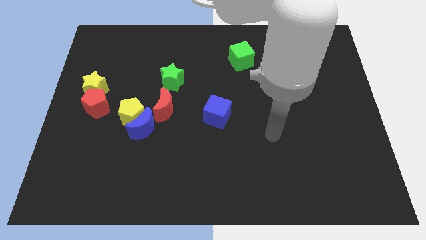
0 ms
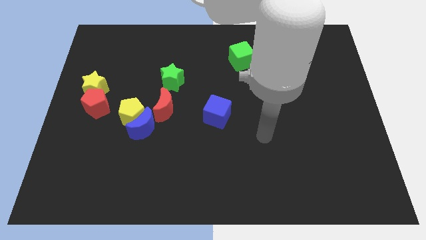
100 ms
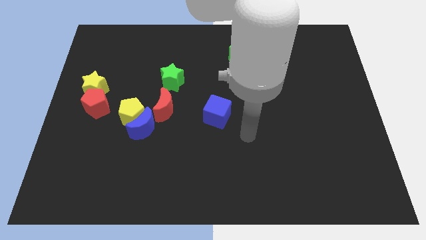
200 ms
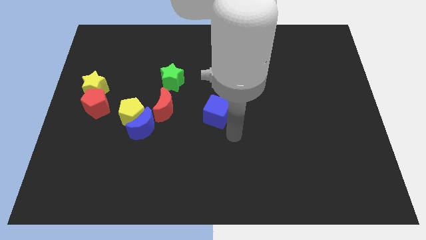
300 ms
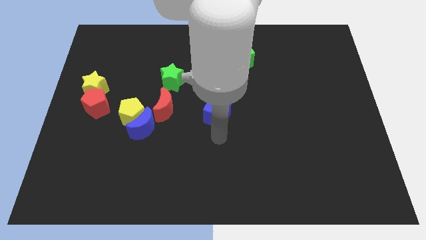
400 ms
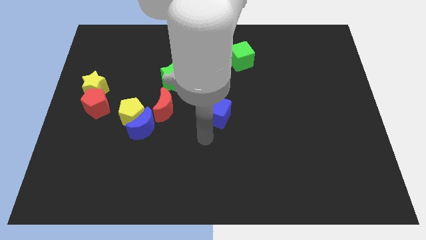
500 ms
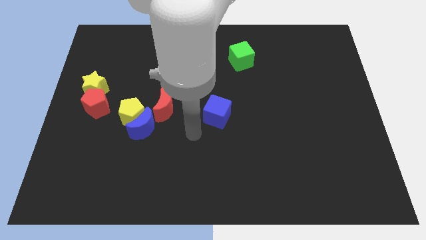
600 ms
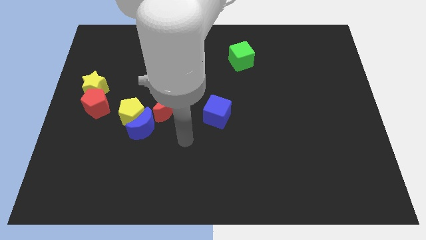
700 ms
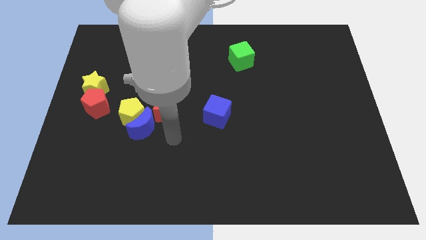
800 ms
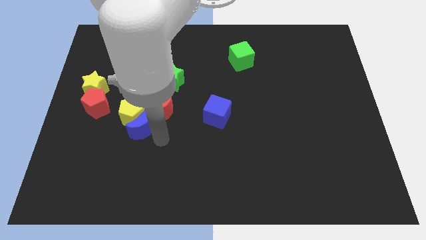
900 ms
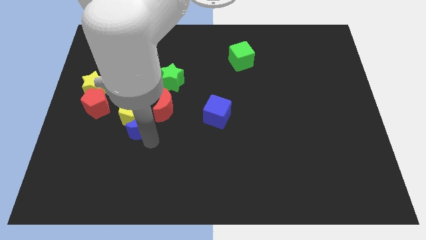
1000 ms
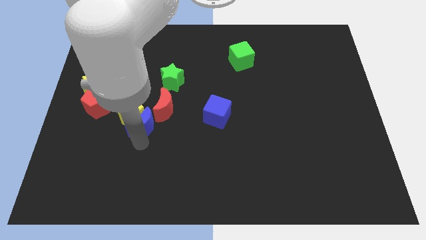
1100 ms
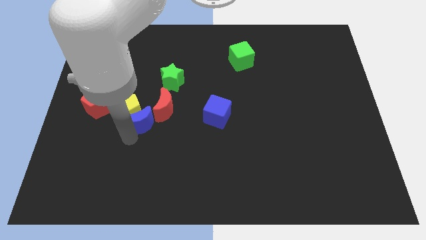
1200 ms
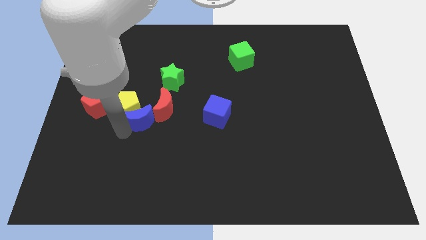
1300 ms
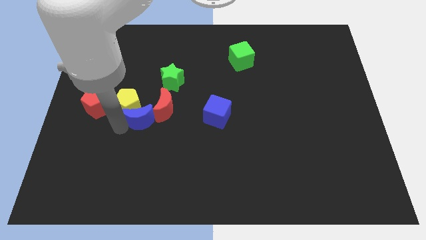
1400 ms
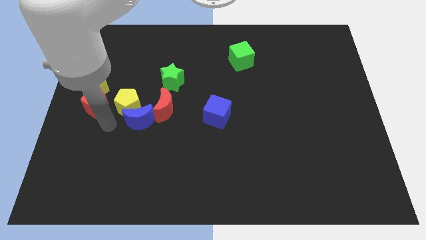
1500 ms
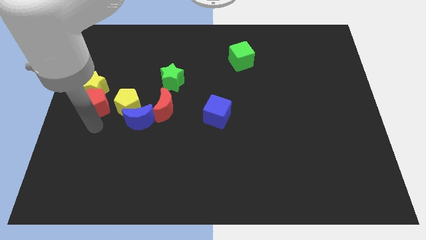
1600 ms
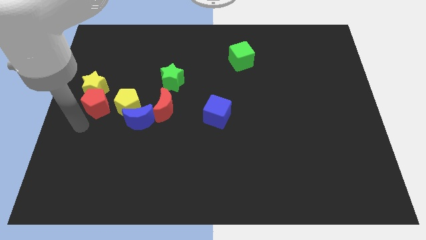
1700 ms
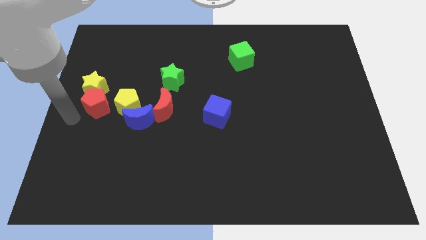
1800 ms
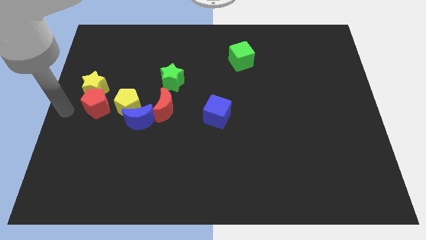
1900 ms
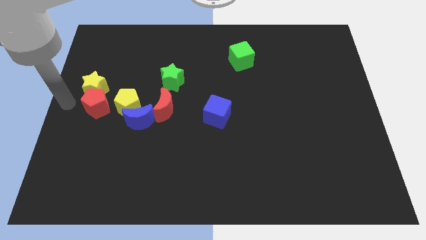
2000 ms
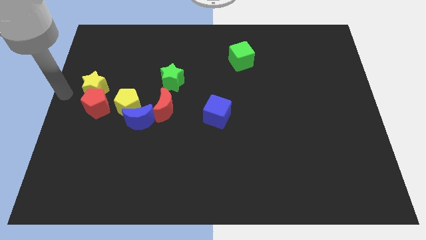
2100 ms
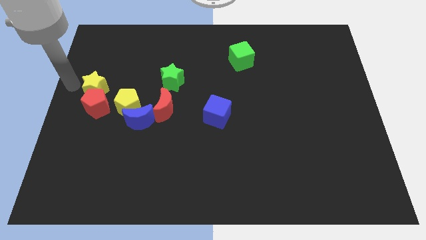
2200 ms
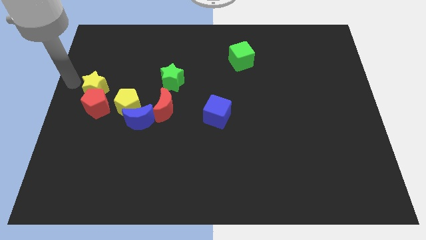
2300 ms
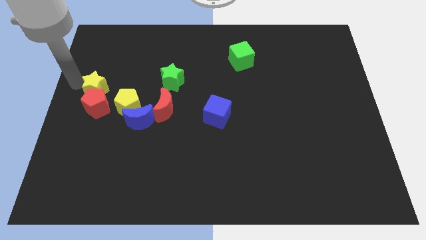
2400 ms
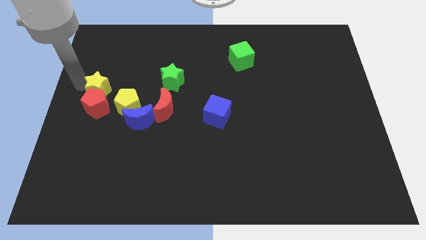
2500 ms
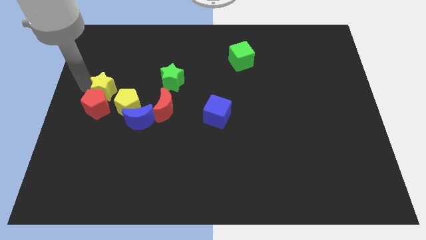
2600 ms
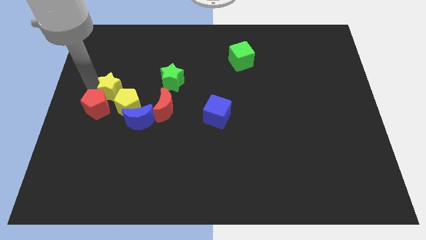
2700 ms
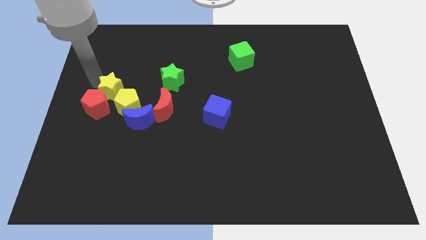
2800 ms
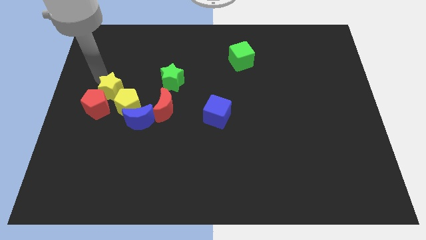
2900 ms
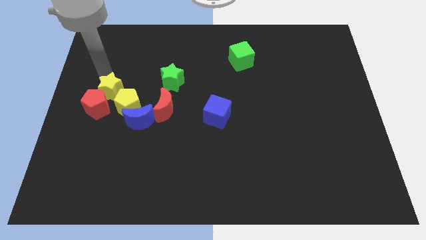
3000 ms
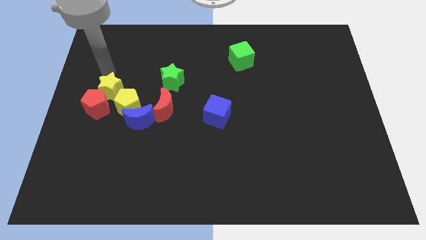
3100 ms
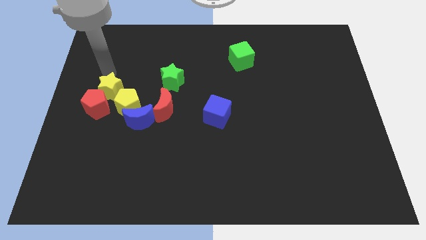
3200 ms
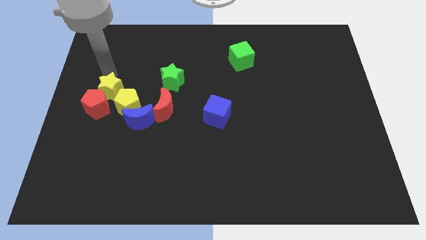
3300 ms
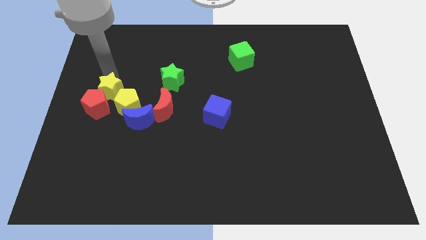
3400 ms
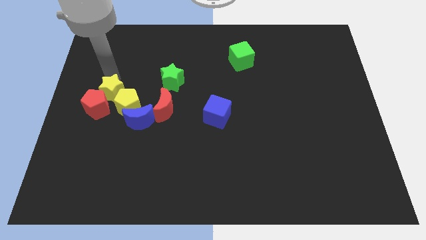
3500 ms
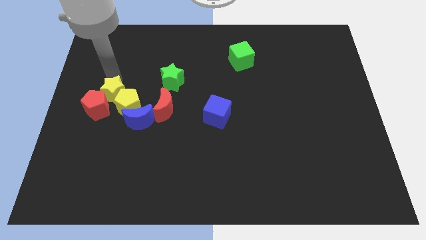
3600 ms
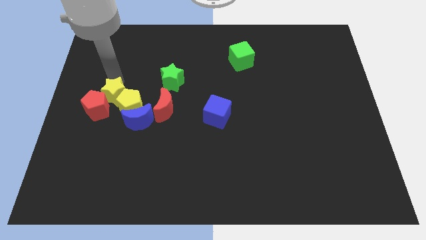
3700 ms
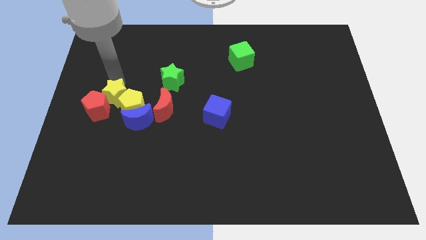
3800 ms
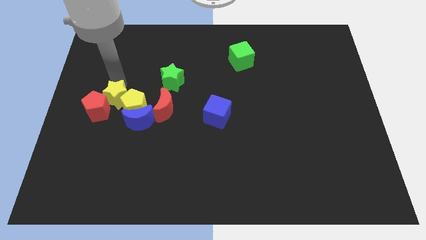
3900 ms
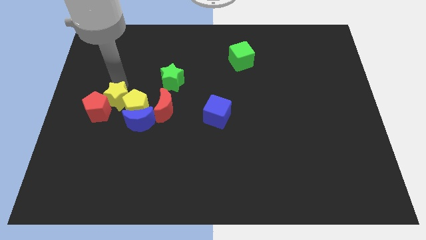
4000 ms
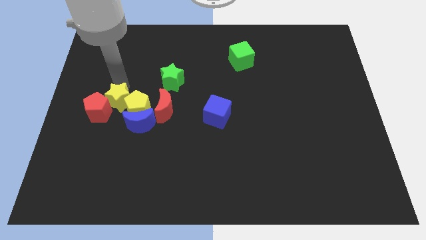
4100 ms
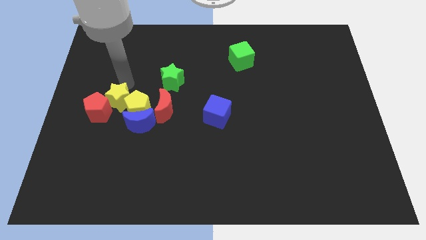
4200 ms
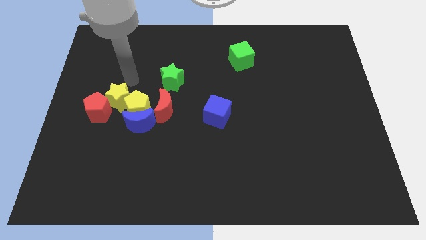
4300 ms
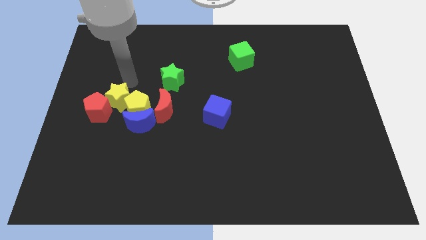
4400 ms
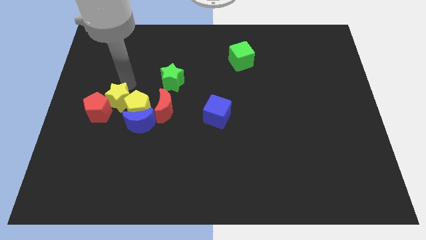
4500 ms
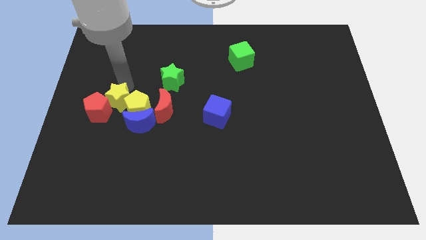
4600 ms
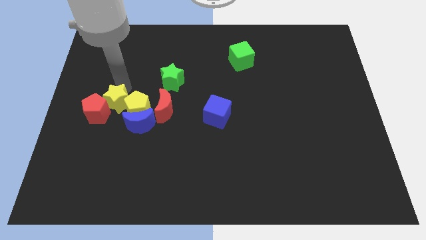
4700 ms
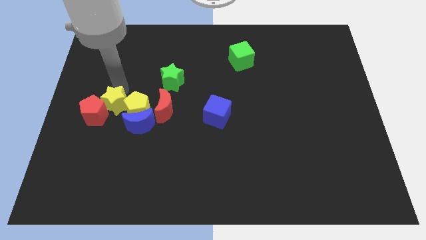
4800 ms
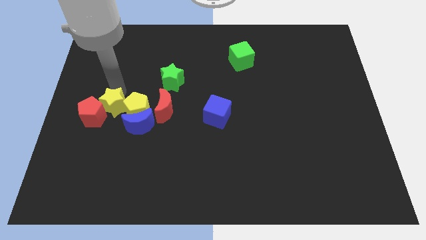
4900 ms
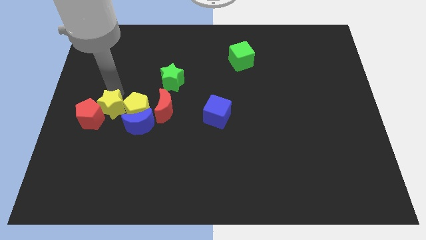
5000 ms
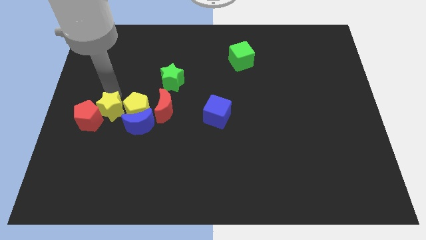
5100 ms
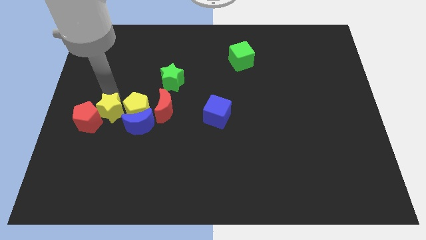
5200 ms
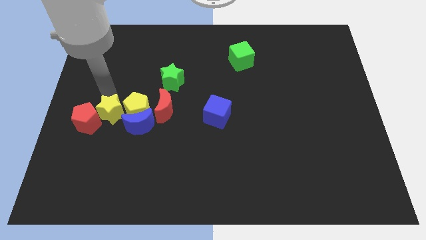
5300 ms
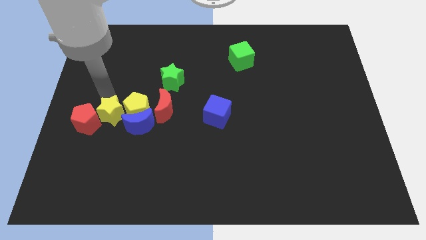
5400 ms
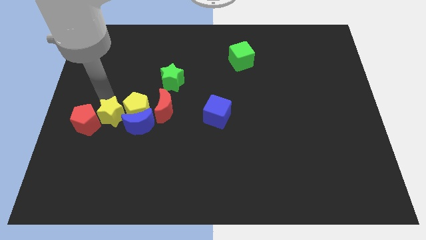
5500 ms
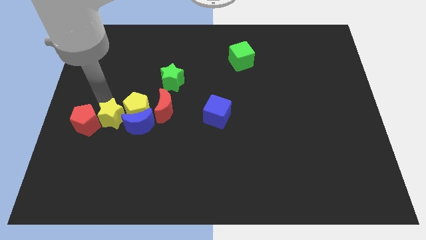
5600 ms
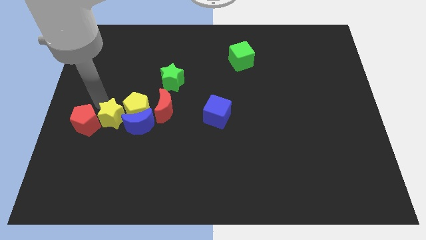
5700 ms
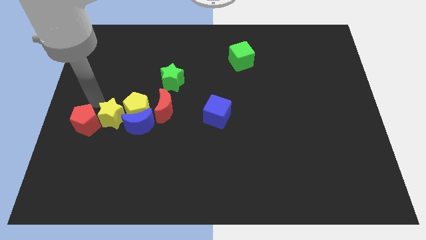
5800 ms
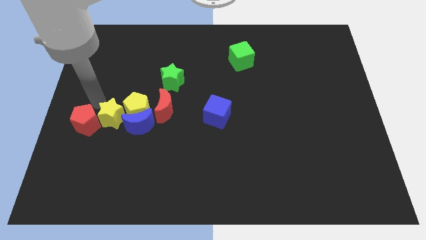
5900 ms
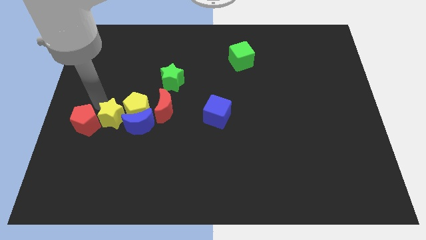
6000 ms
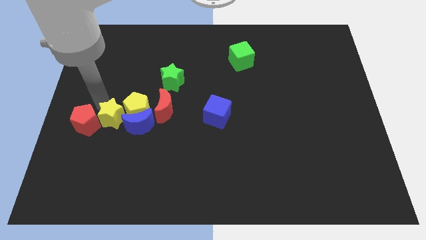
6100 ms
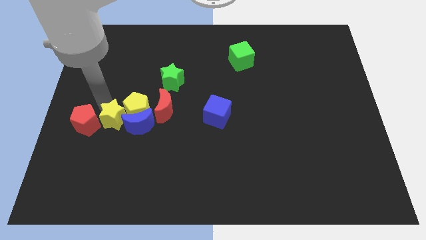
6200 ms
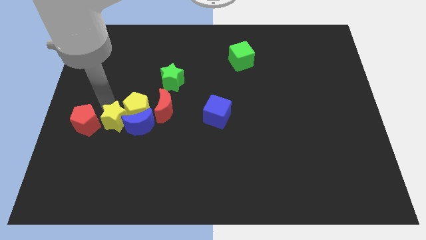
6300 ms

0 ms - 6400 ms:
push the yellow star towards the blue moon

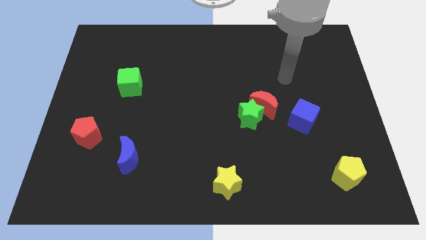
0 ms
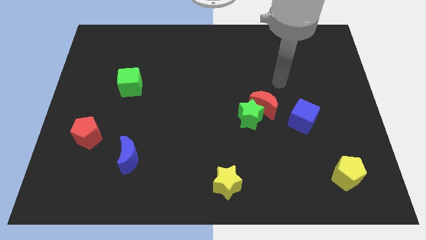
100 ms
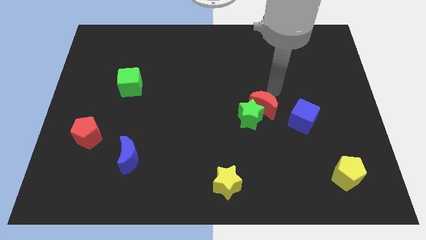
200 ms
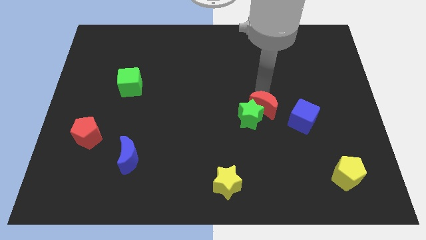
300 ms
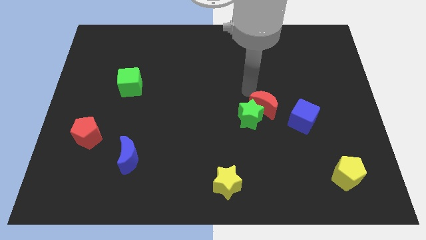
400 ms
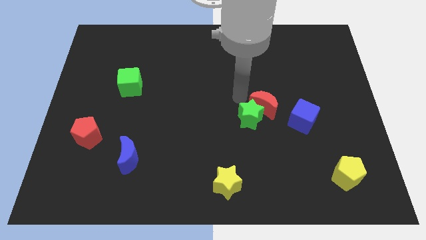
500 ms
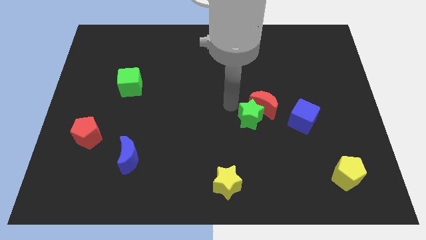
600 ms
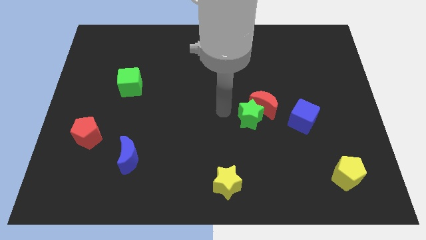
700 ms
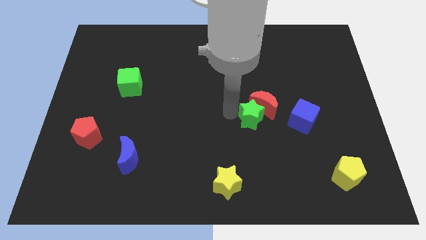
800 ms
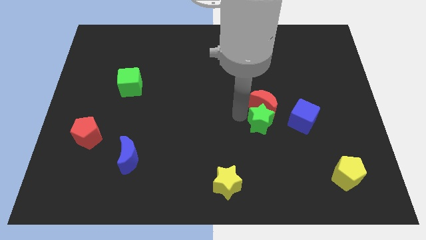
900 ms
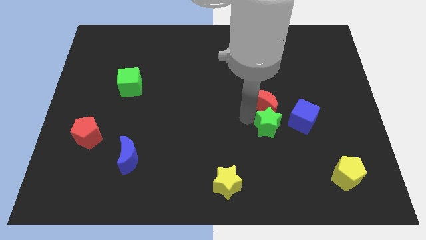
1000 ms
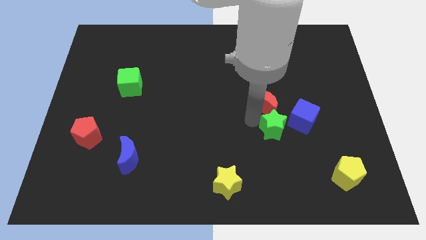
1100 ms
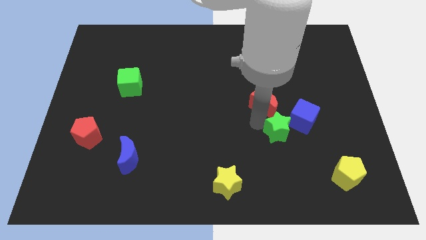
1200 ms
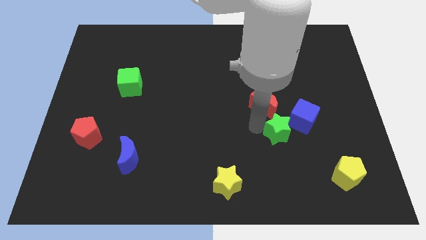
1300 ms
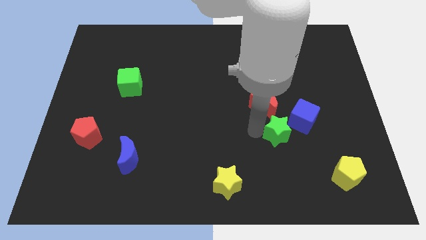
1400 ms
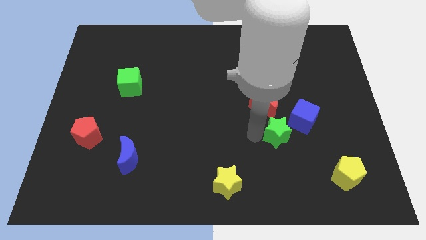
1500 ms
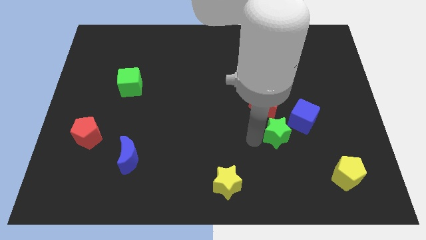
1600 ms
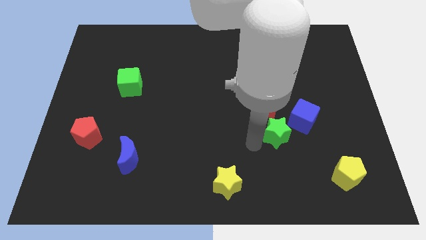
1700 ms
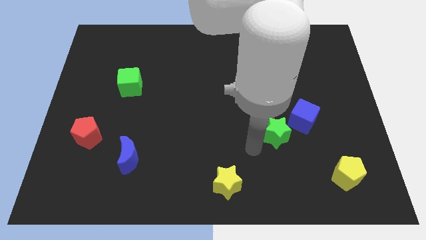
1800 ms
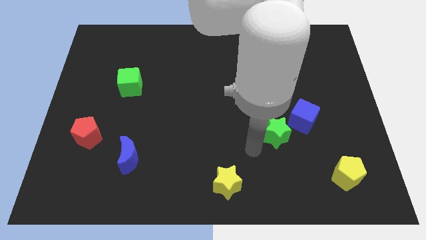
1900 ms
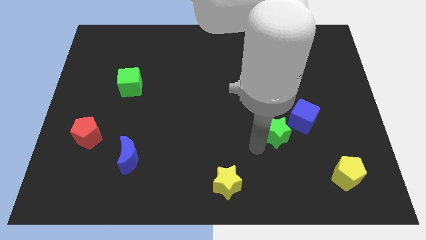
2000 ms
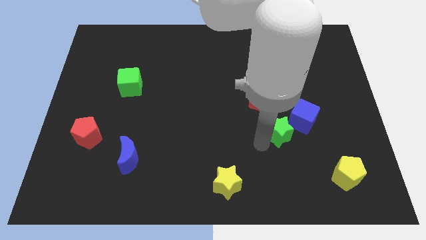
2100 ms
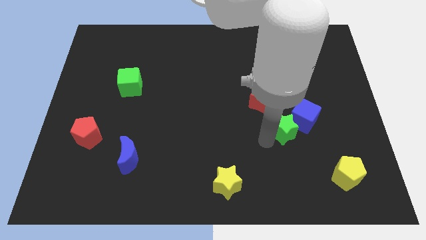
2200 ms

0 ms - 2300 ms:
move the green star next to the blue cube
